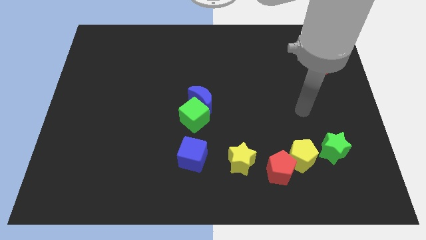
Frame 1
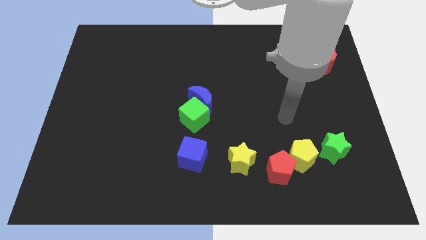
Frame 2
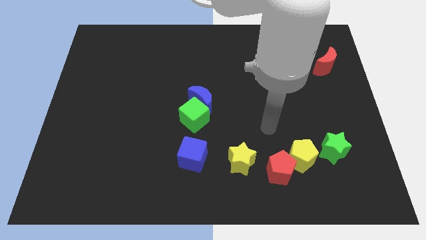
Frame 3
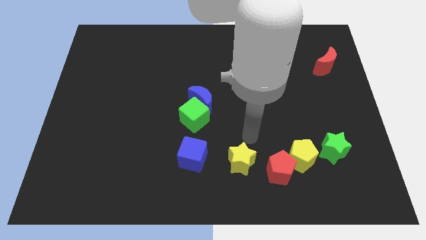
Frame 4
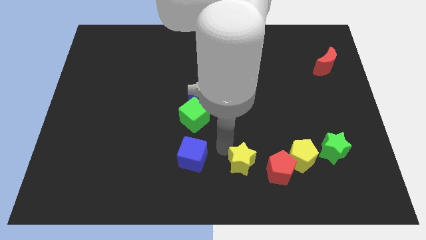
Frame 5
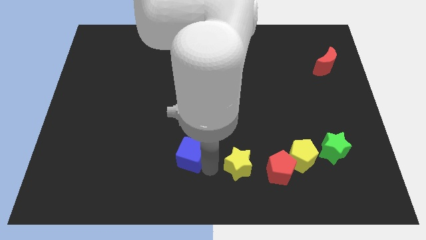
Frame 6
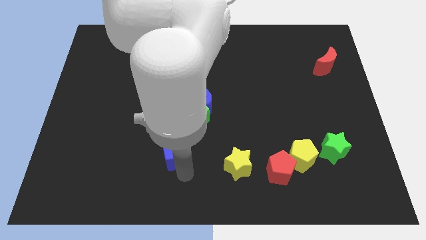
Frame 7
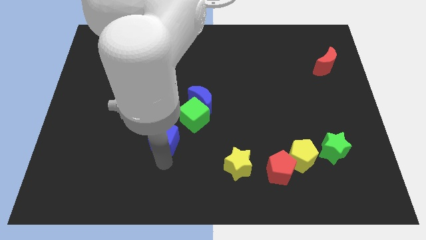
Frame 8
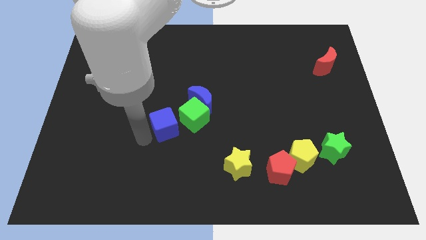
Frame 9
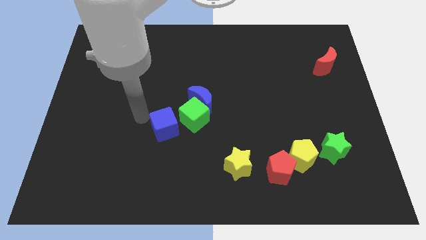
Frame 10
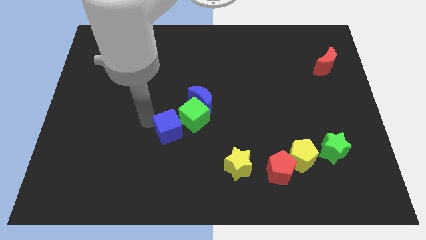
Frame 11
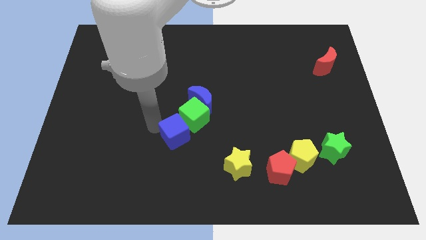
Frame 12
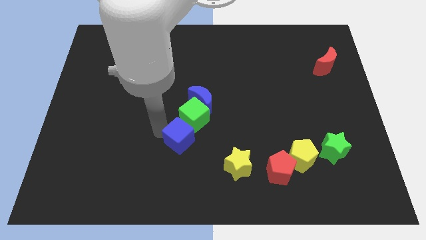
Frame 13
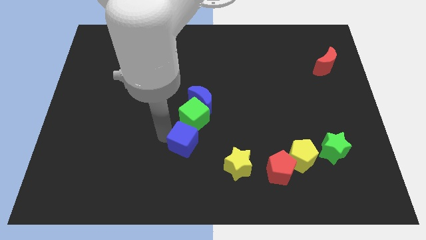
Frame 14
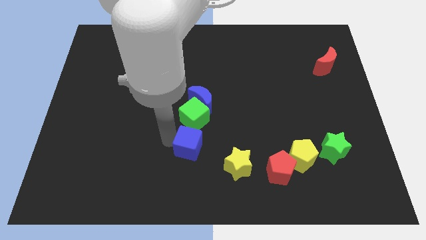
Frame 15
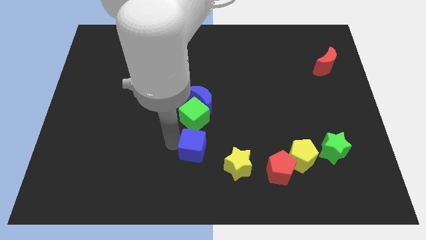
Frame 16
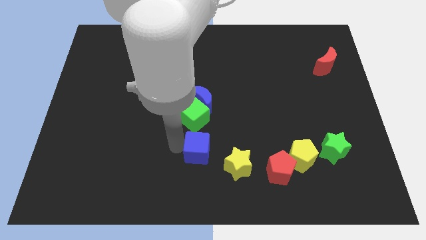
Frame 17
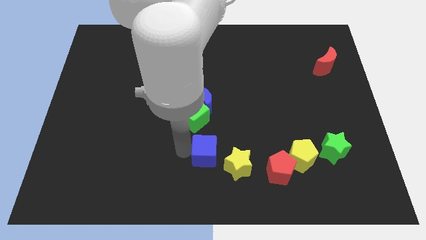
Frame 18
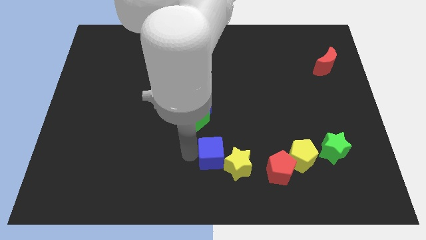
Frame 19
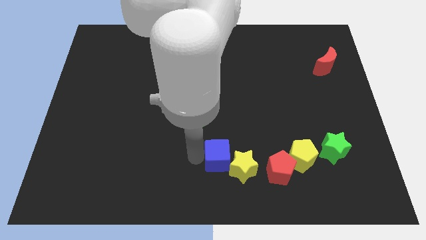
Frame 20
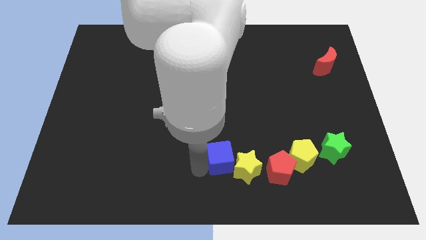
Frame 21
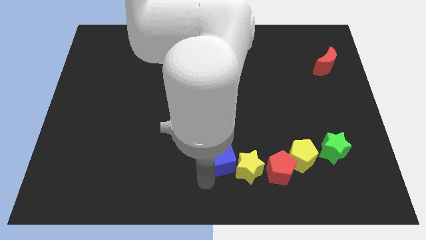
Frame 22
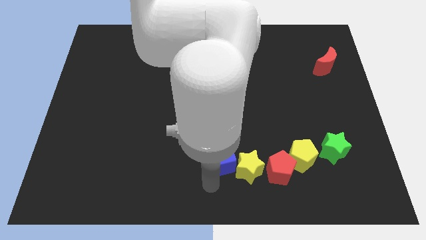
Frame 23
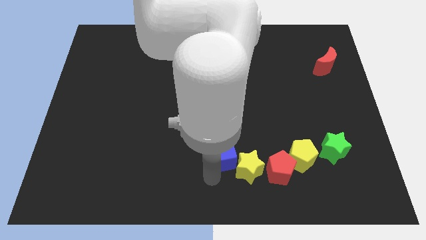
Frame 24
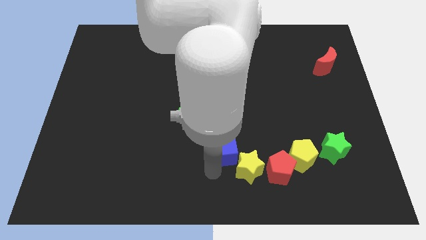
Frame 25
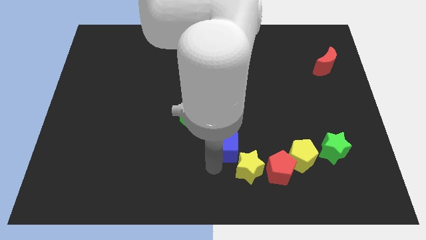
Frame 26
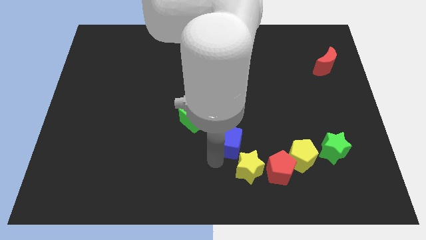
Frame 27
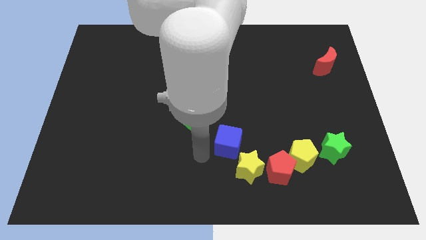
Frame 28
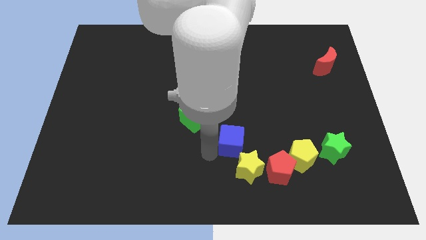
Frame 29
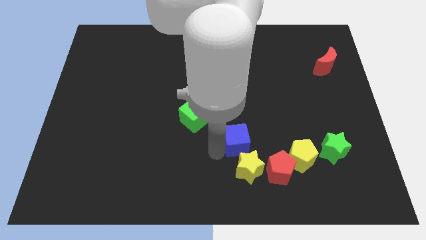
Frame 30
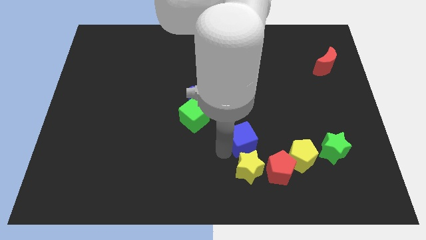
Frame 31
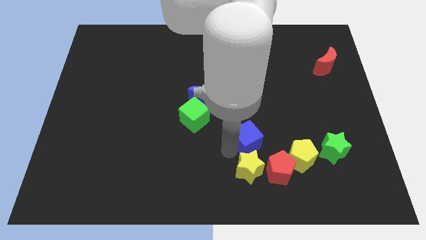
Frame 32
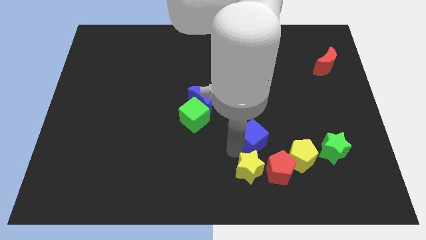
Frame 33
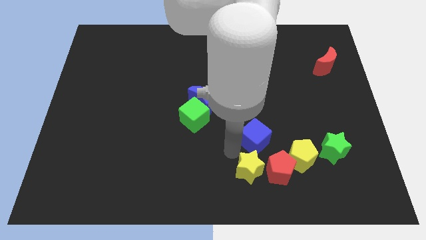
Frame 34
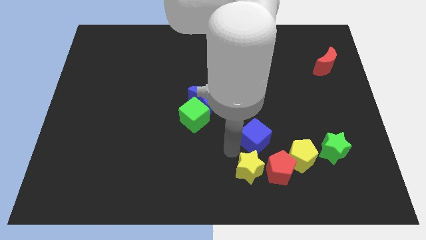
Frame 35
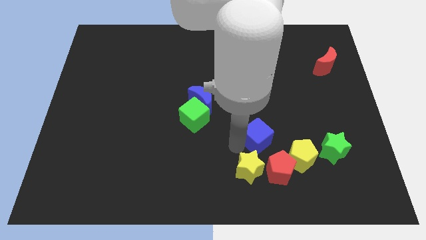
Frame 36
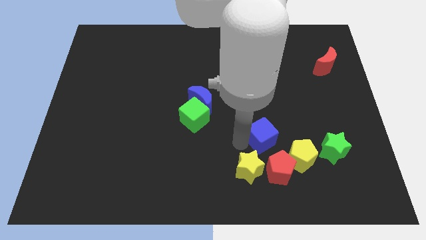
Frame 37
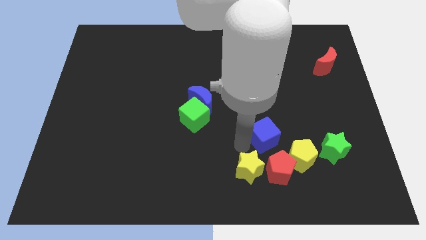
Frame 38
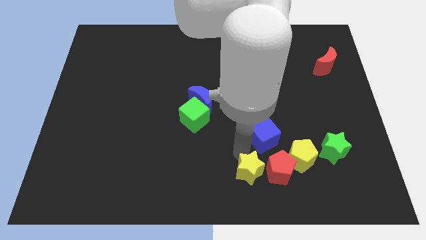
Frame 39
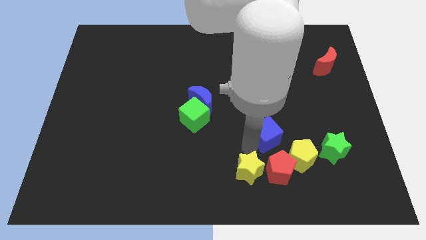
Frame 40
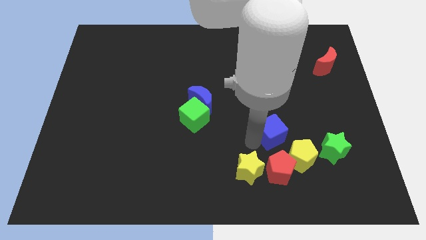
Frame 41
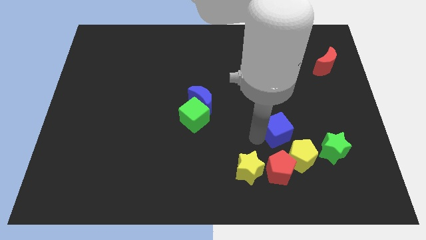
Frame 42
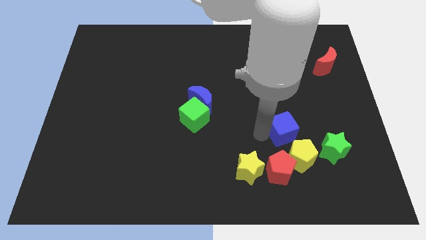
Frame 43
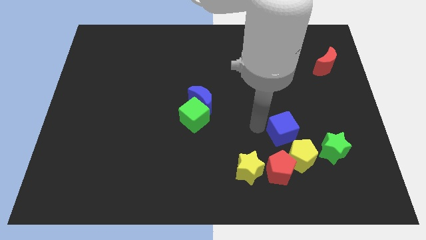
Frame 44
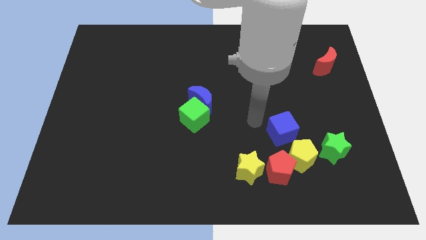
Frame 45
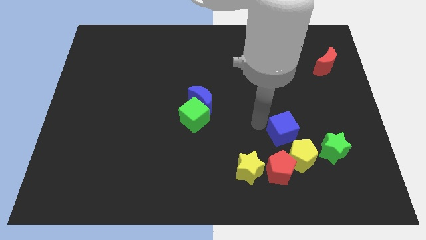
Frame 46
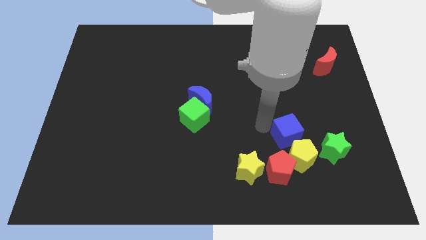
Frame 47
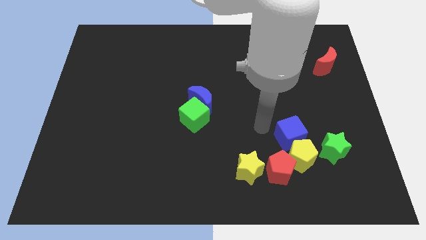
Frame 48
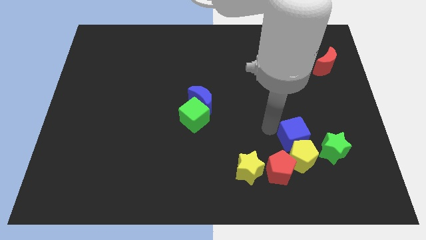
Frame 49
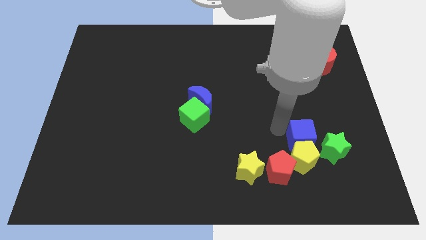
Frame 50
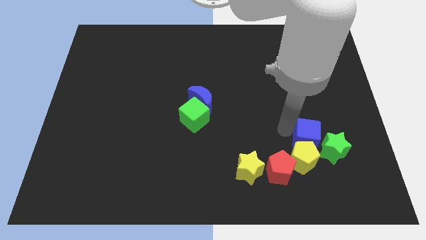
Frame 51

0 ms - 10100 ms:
move the blue cube next to the green star

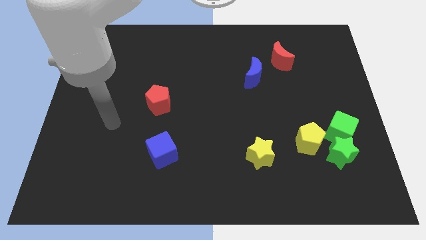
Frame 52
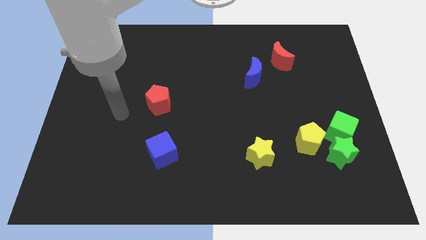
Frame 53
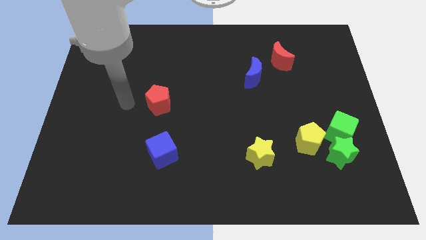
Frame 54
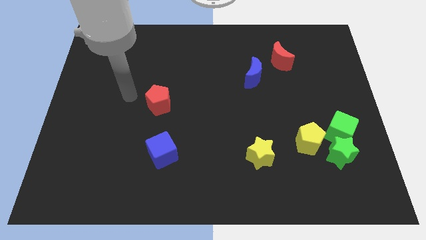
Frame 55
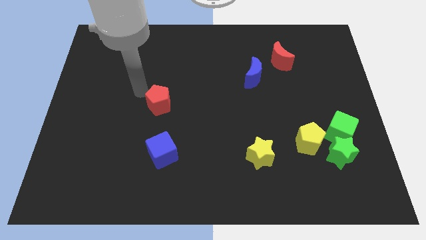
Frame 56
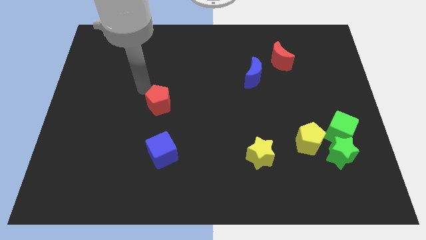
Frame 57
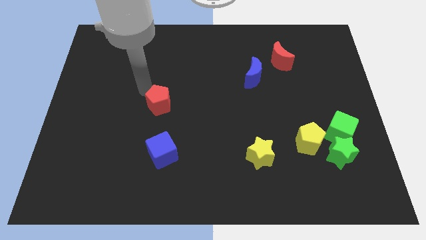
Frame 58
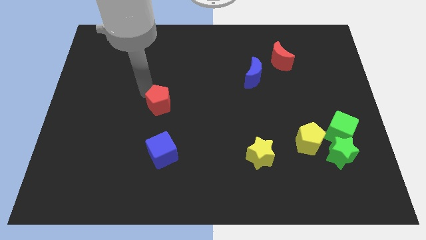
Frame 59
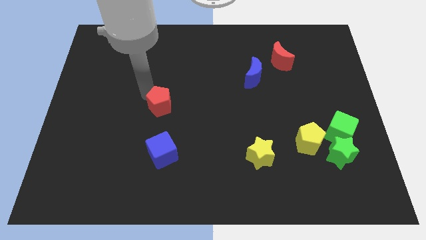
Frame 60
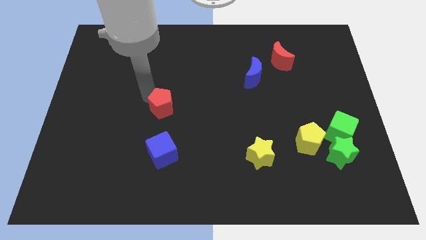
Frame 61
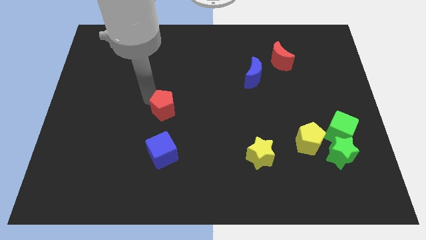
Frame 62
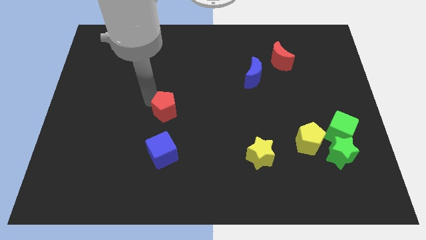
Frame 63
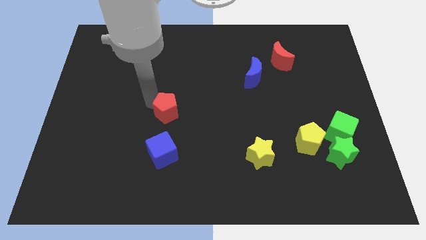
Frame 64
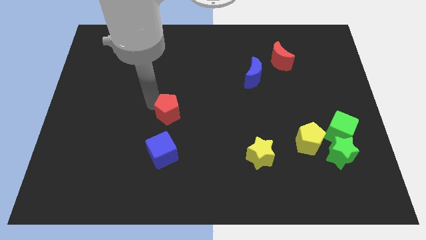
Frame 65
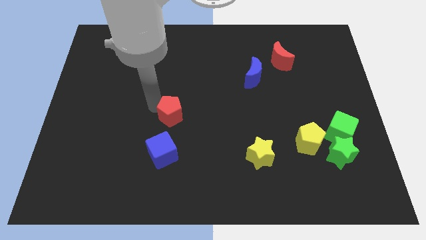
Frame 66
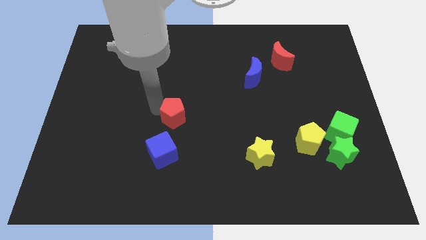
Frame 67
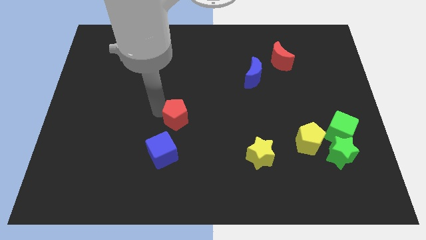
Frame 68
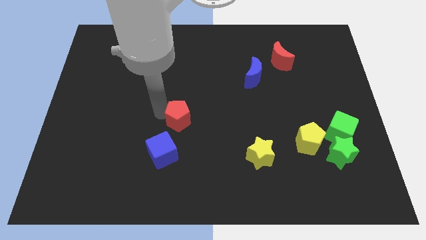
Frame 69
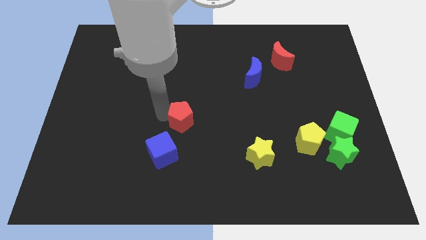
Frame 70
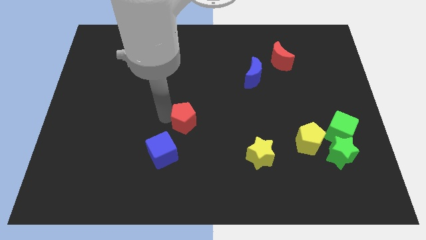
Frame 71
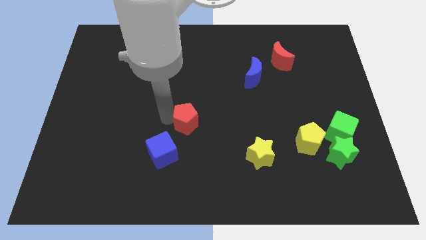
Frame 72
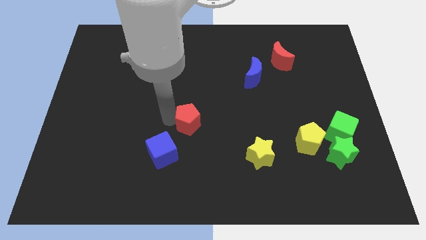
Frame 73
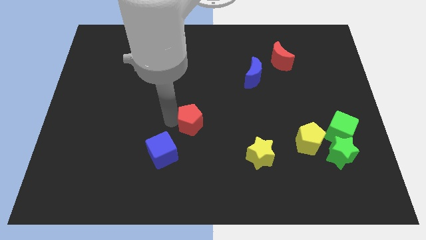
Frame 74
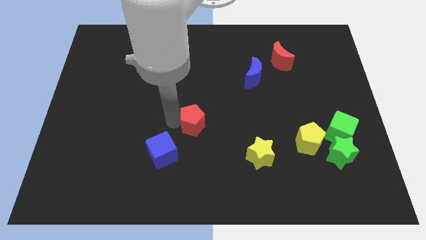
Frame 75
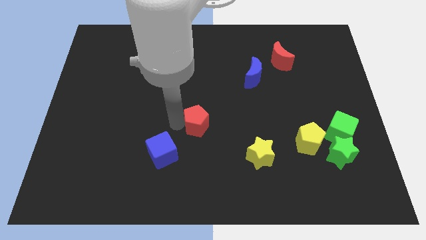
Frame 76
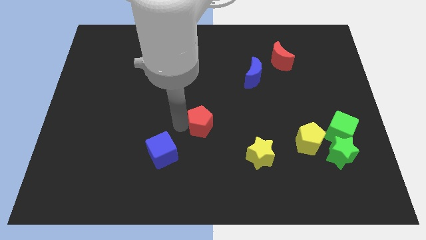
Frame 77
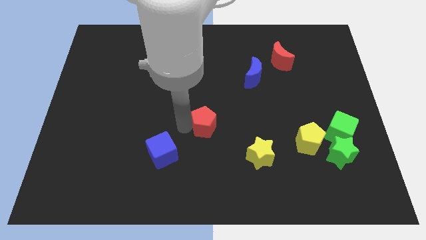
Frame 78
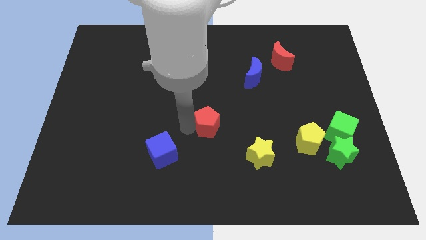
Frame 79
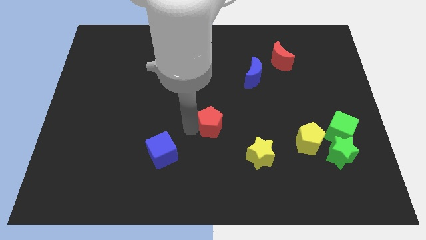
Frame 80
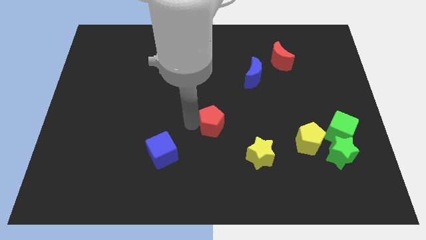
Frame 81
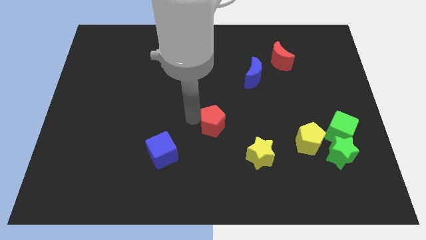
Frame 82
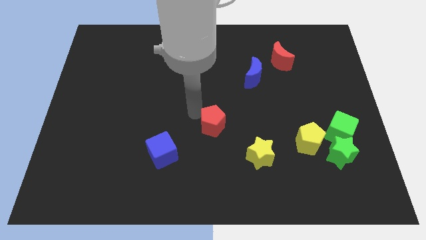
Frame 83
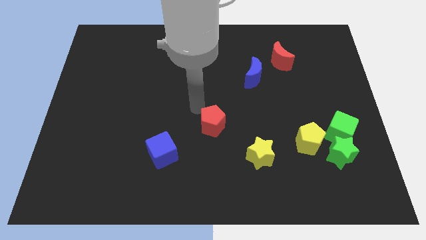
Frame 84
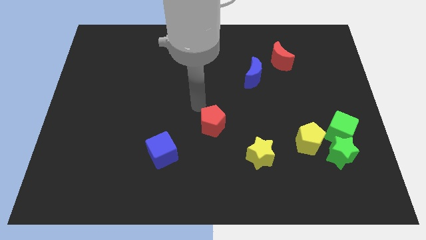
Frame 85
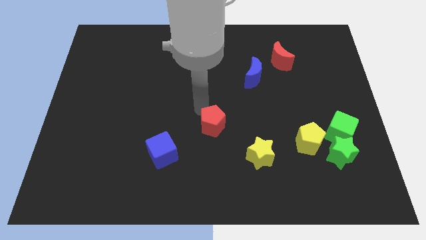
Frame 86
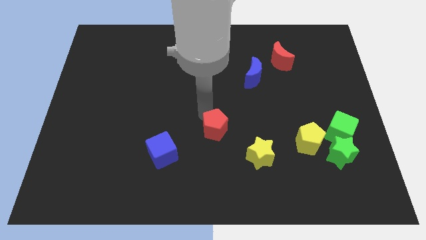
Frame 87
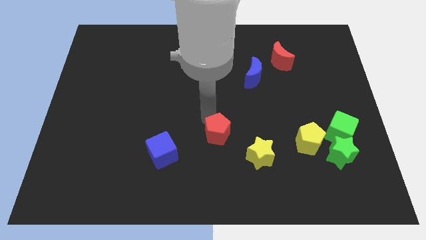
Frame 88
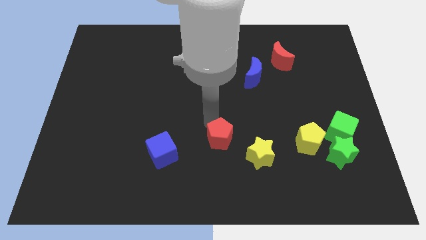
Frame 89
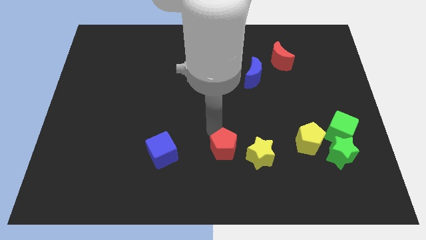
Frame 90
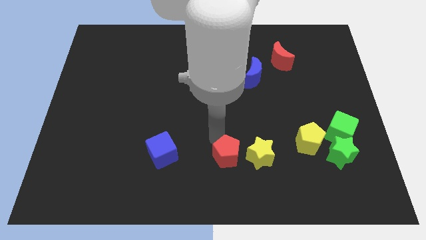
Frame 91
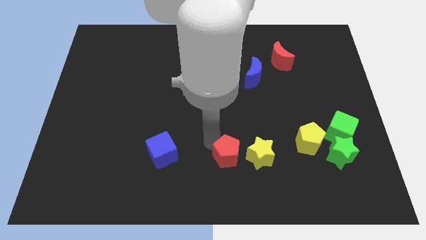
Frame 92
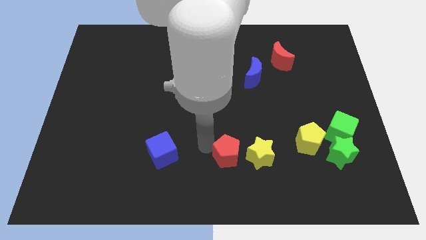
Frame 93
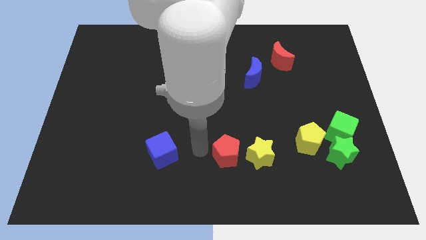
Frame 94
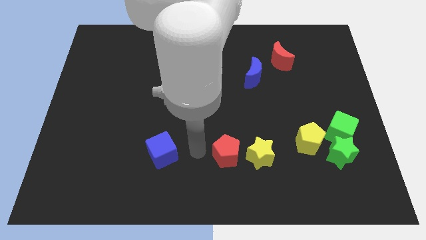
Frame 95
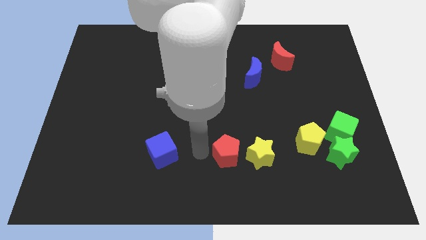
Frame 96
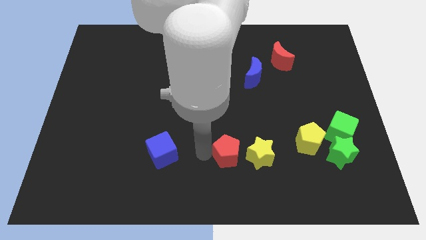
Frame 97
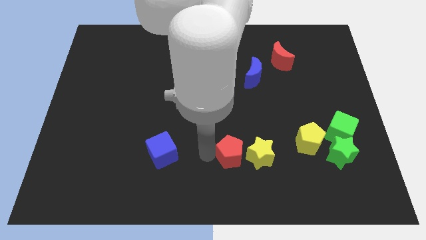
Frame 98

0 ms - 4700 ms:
move the red pentagon to the yellow star
